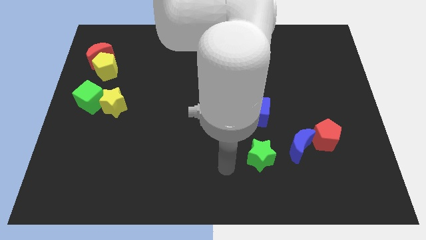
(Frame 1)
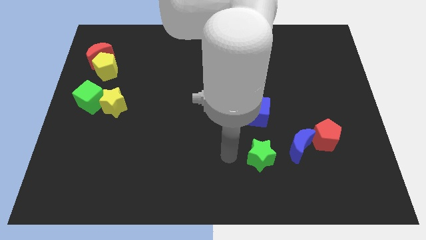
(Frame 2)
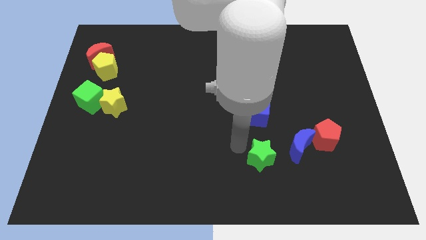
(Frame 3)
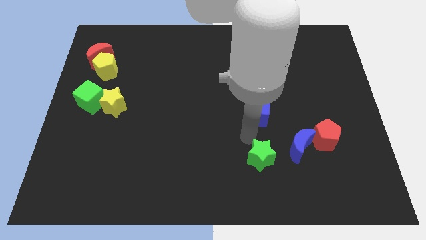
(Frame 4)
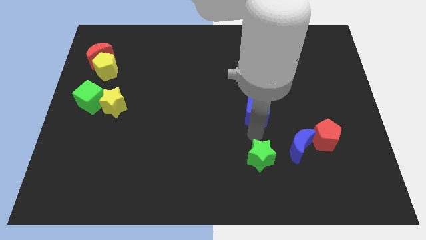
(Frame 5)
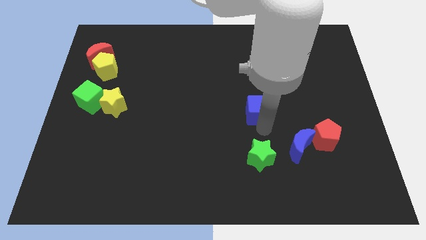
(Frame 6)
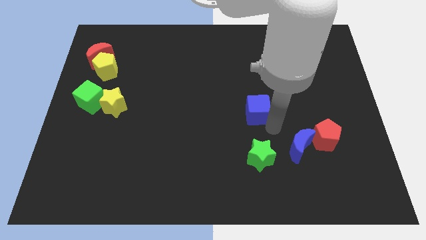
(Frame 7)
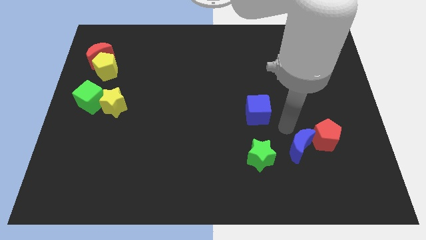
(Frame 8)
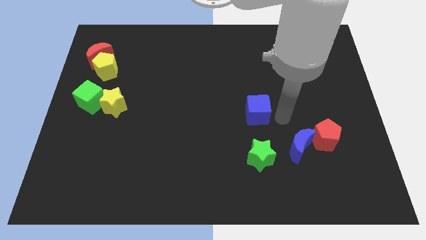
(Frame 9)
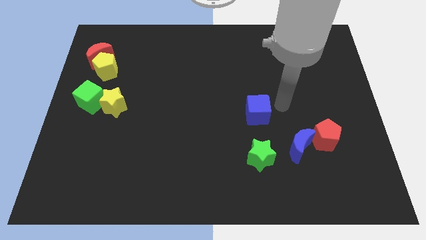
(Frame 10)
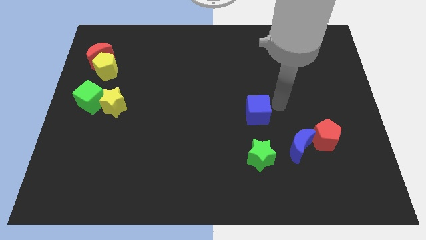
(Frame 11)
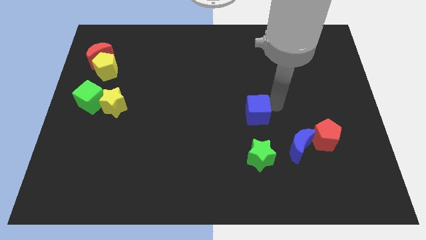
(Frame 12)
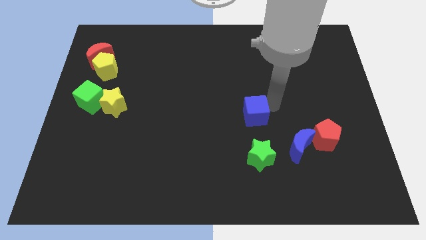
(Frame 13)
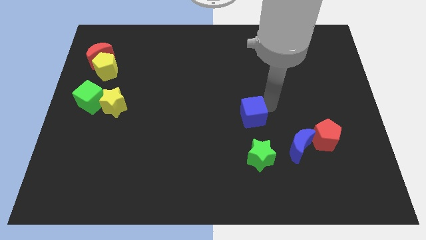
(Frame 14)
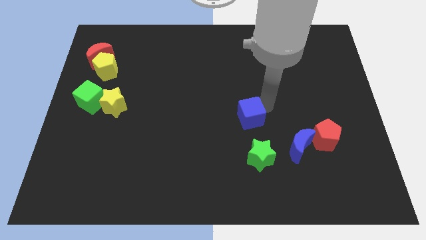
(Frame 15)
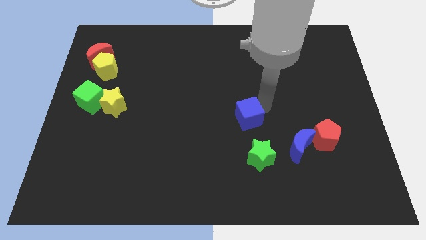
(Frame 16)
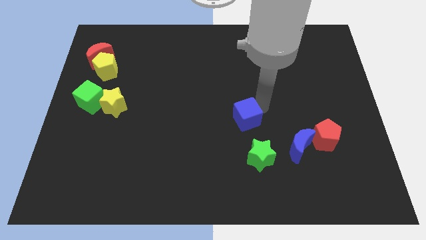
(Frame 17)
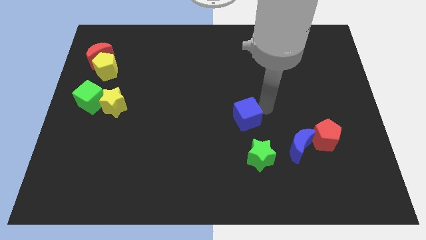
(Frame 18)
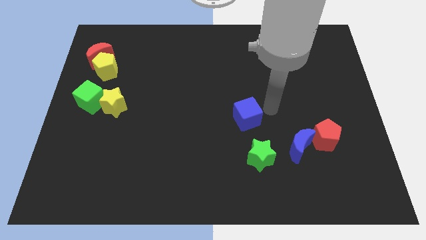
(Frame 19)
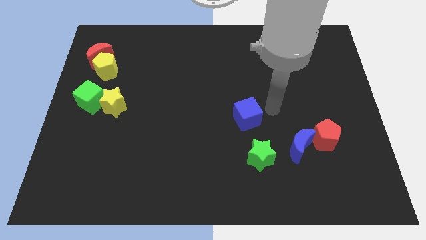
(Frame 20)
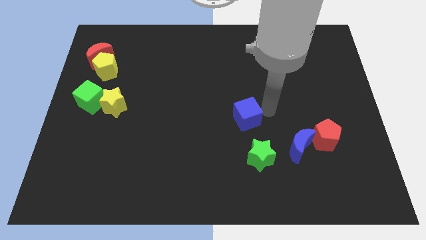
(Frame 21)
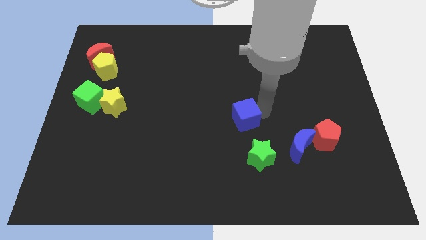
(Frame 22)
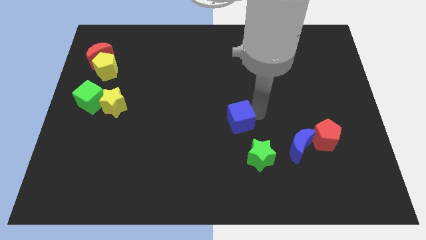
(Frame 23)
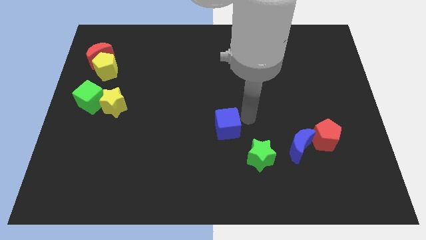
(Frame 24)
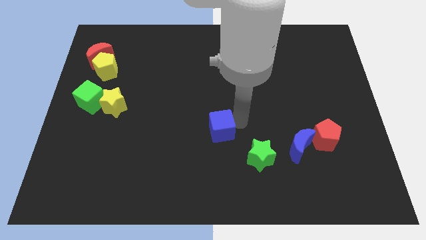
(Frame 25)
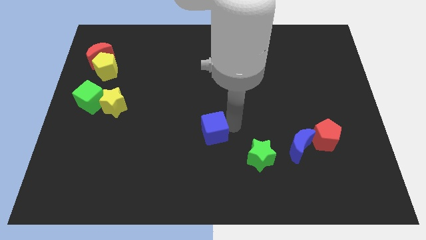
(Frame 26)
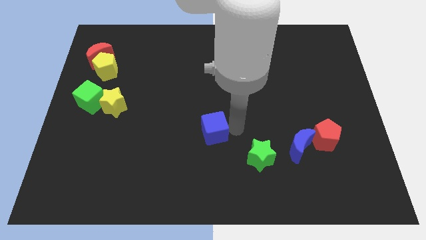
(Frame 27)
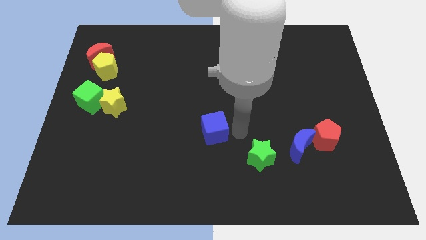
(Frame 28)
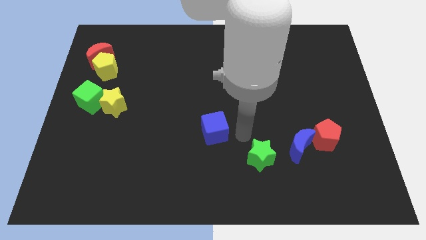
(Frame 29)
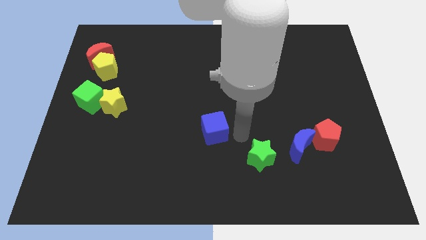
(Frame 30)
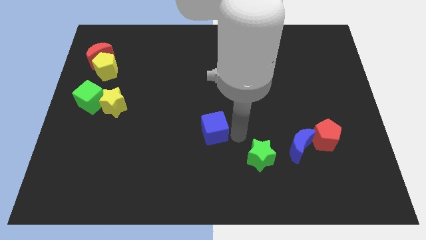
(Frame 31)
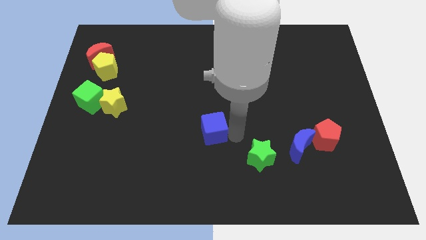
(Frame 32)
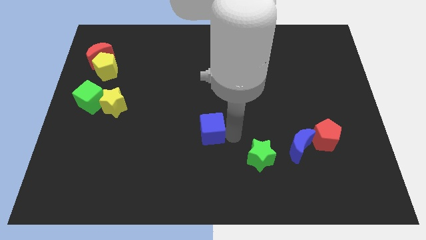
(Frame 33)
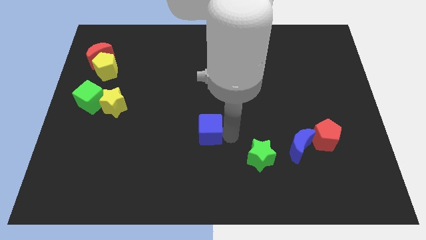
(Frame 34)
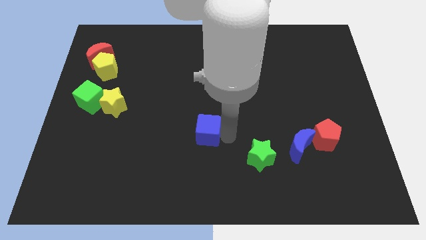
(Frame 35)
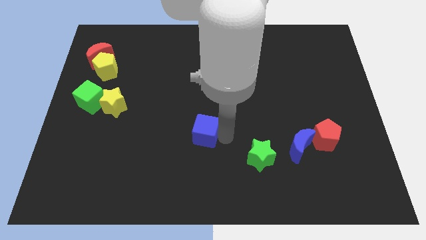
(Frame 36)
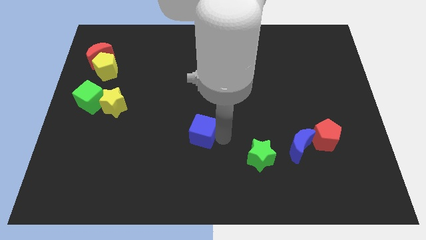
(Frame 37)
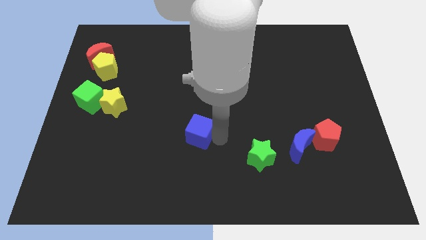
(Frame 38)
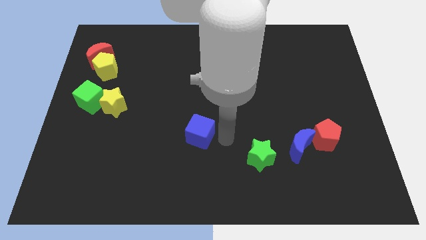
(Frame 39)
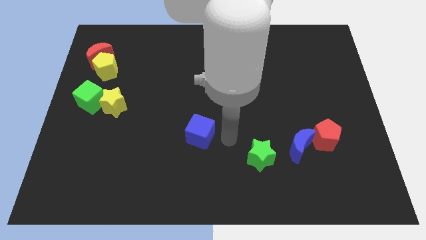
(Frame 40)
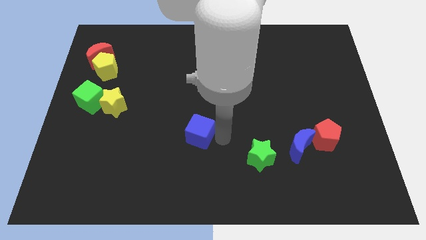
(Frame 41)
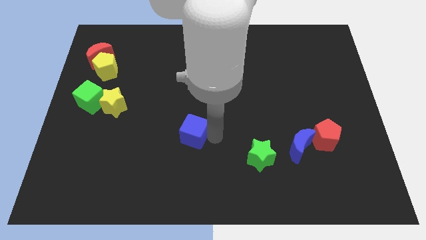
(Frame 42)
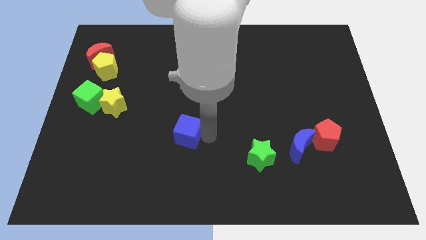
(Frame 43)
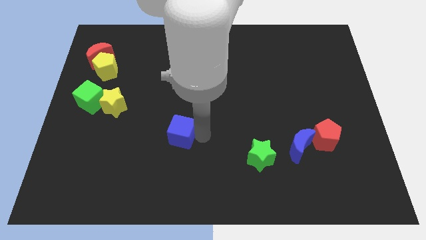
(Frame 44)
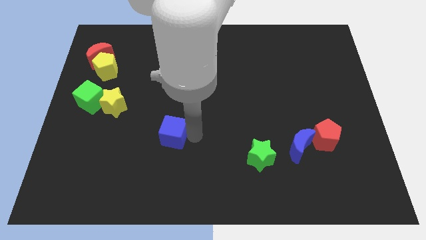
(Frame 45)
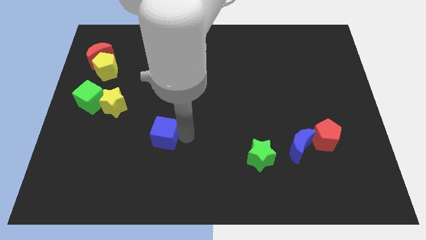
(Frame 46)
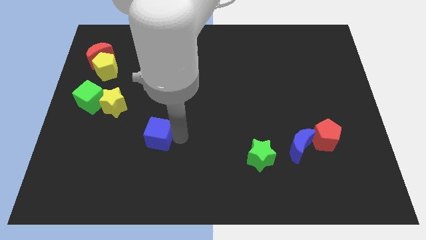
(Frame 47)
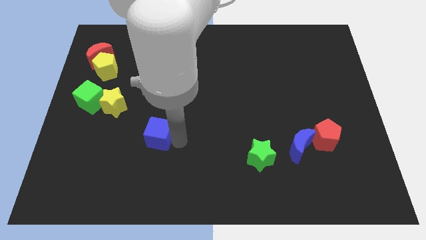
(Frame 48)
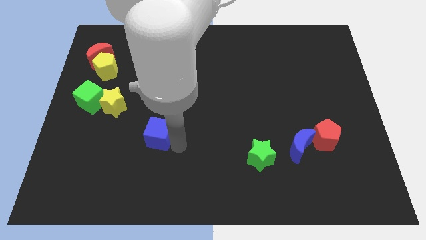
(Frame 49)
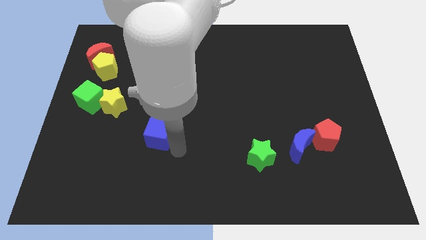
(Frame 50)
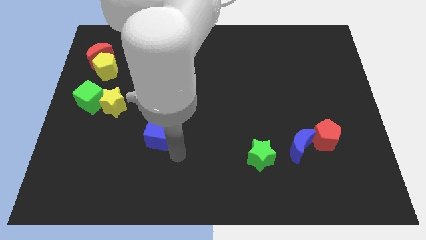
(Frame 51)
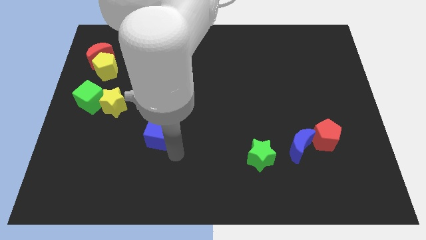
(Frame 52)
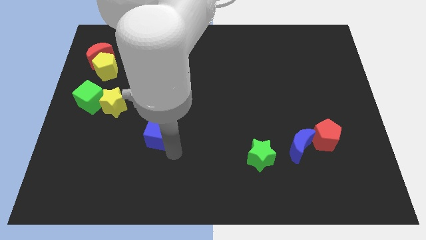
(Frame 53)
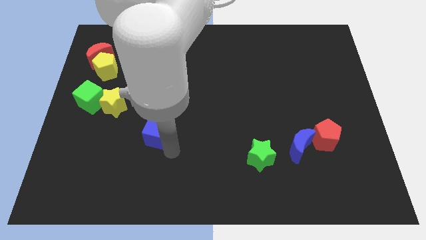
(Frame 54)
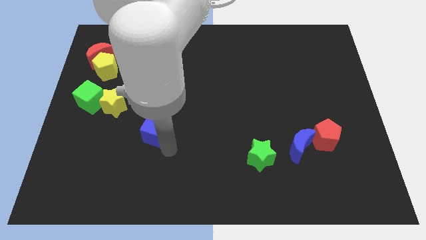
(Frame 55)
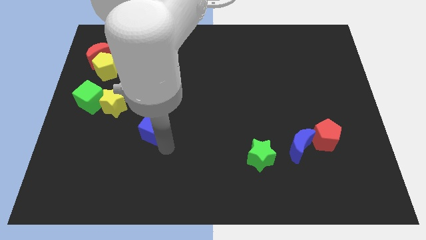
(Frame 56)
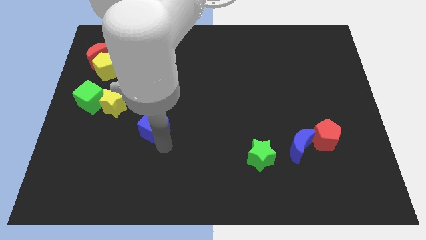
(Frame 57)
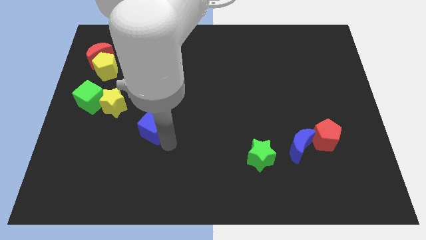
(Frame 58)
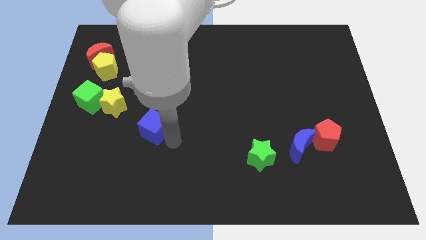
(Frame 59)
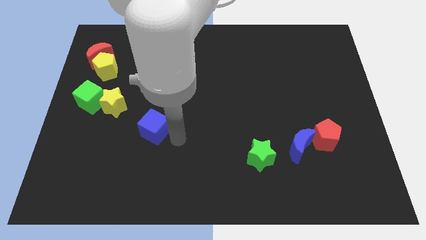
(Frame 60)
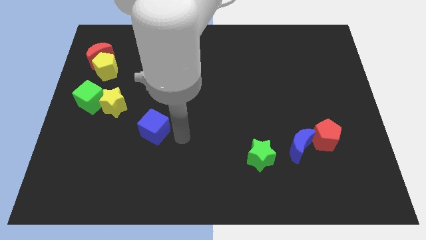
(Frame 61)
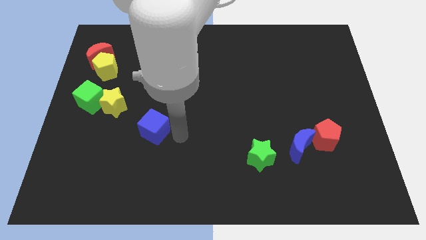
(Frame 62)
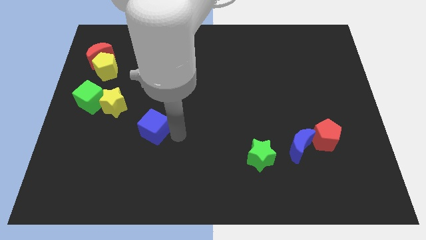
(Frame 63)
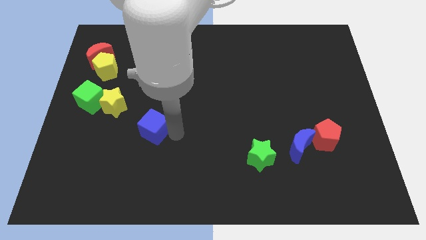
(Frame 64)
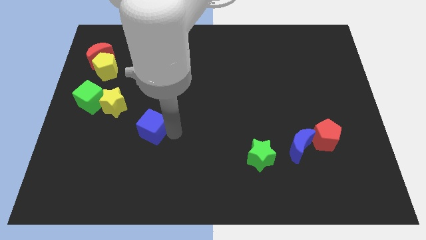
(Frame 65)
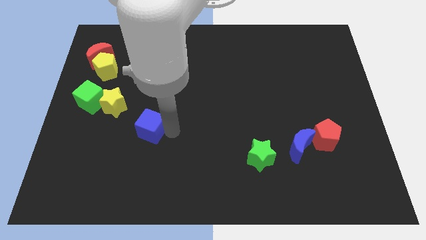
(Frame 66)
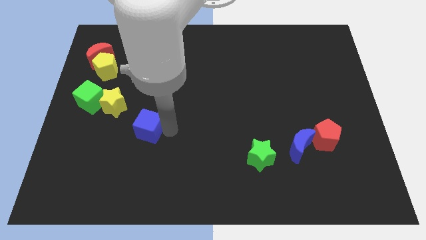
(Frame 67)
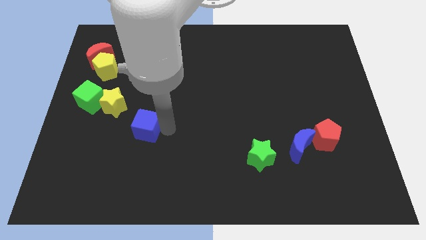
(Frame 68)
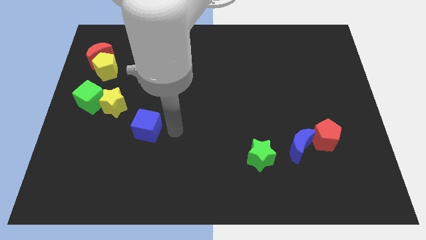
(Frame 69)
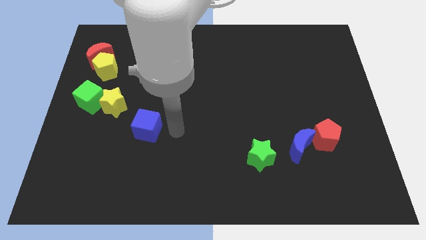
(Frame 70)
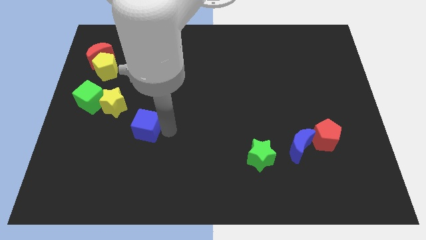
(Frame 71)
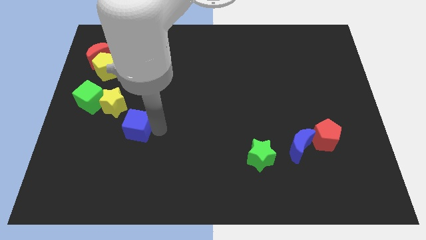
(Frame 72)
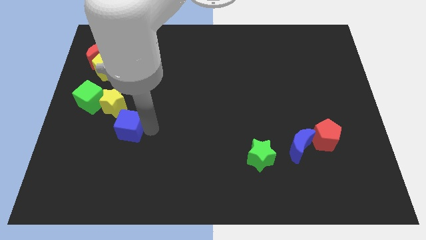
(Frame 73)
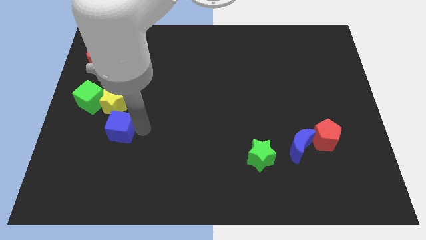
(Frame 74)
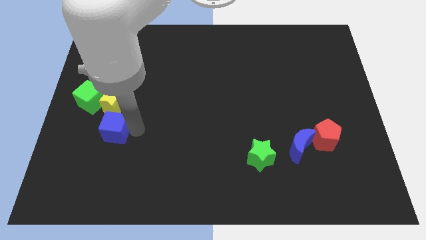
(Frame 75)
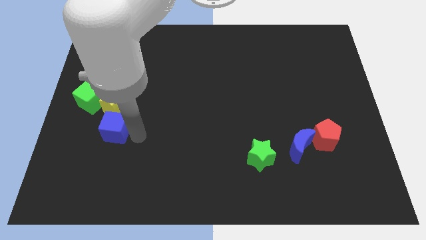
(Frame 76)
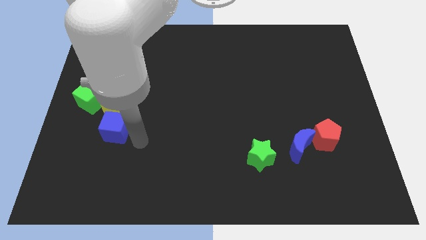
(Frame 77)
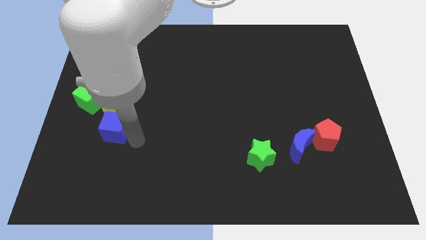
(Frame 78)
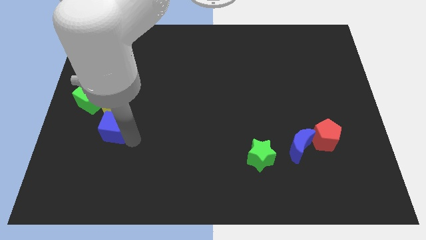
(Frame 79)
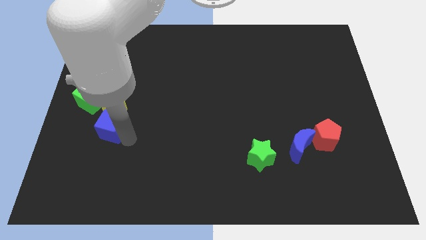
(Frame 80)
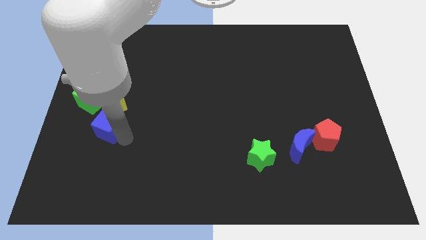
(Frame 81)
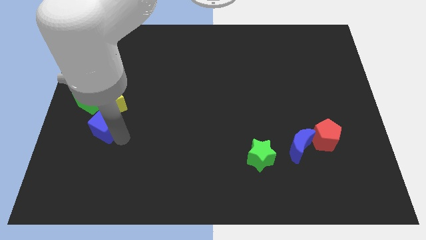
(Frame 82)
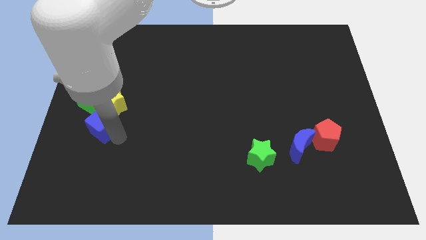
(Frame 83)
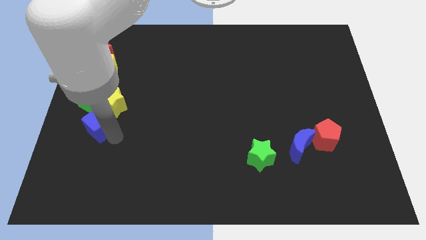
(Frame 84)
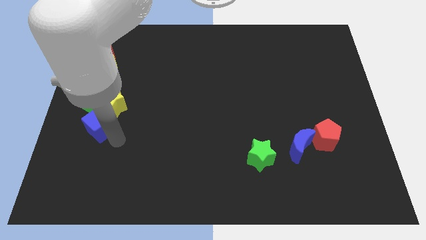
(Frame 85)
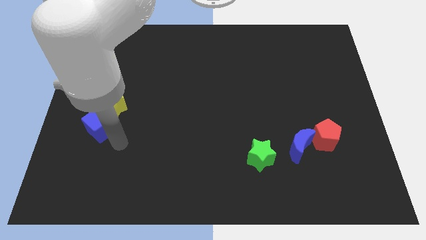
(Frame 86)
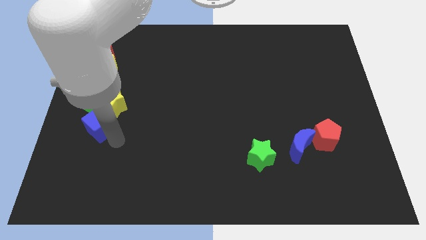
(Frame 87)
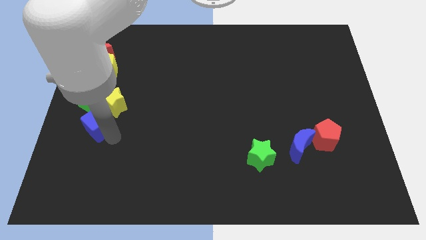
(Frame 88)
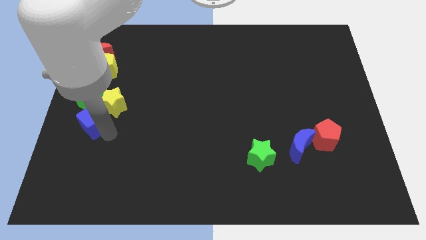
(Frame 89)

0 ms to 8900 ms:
push the blue cube to the center left
